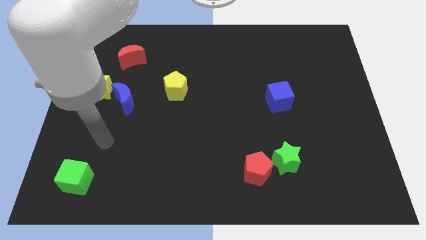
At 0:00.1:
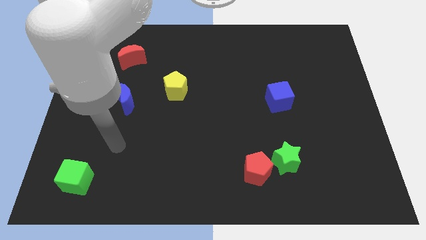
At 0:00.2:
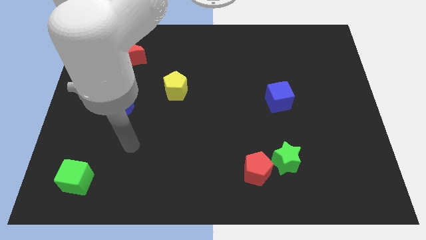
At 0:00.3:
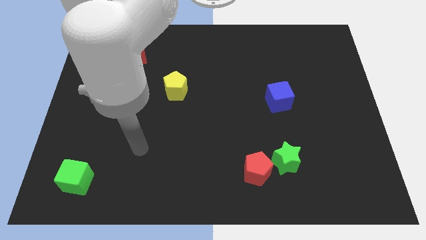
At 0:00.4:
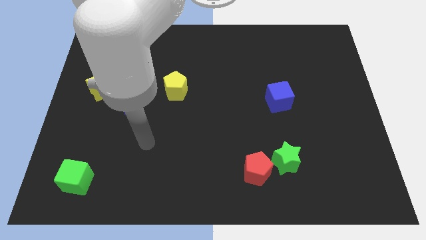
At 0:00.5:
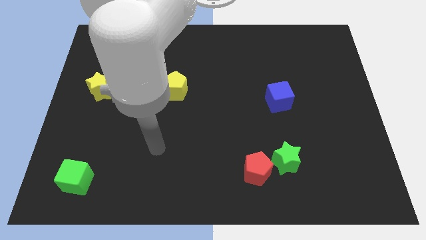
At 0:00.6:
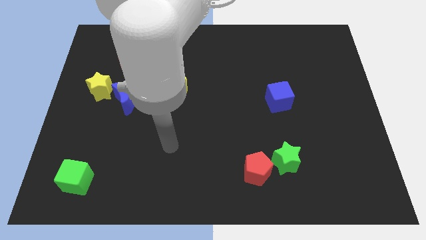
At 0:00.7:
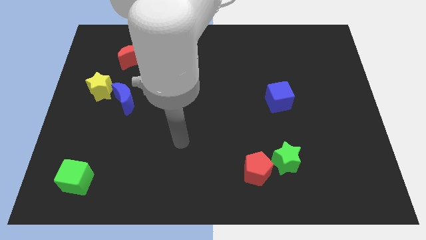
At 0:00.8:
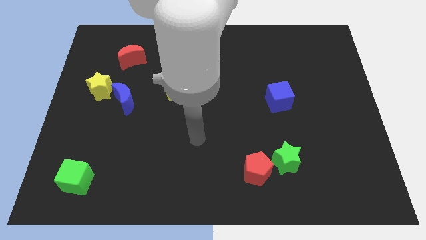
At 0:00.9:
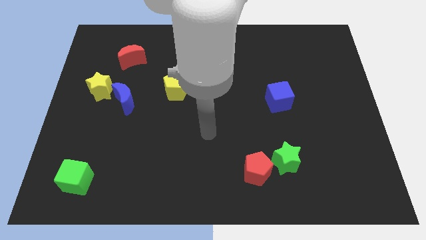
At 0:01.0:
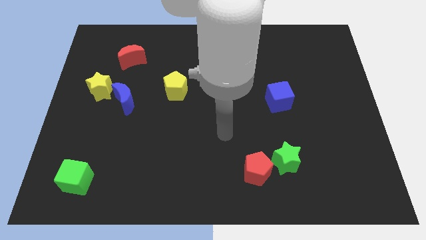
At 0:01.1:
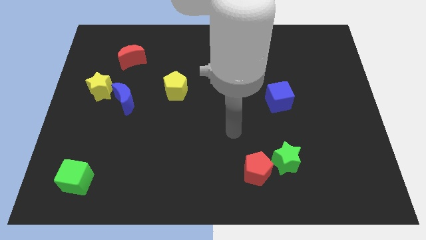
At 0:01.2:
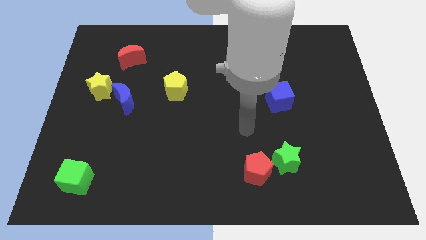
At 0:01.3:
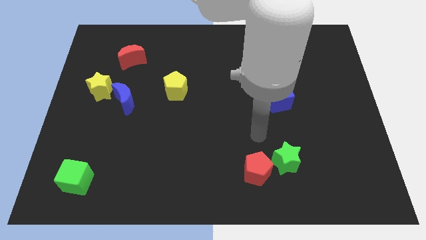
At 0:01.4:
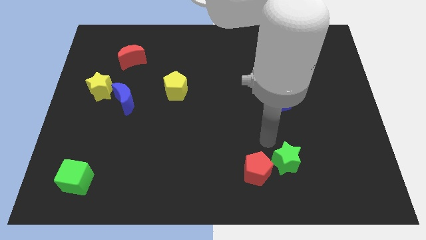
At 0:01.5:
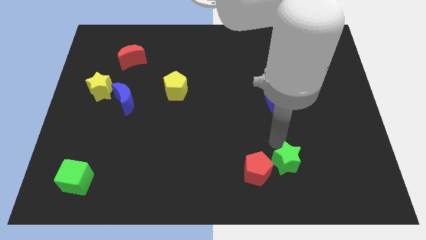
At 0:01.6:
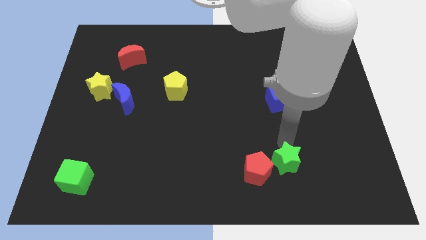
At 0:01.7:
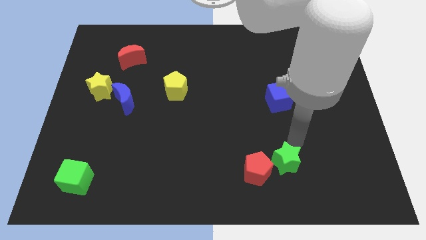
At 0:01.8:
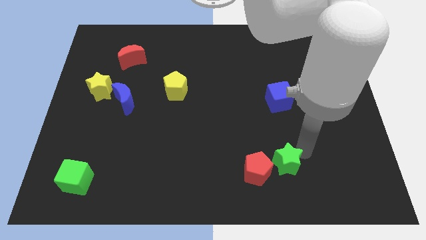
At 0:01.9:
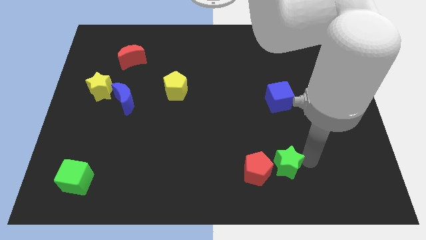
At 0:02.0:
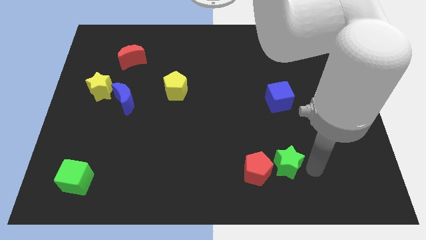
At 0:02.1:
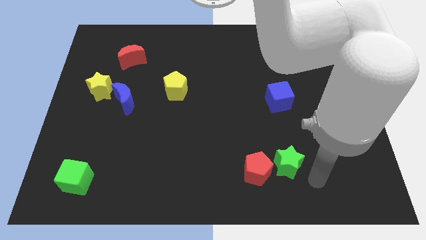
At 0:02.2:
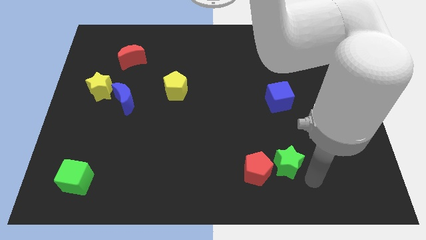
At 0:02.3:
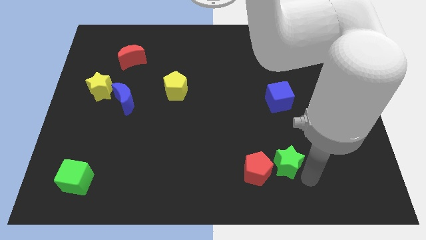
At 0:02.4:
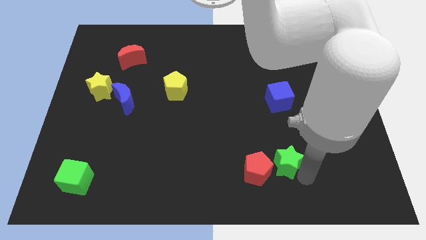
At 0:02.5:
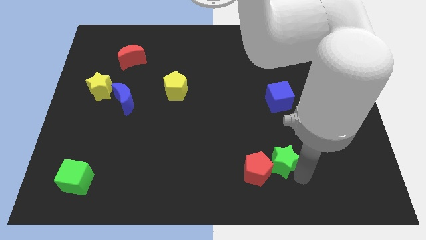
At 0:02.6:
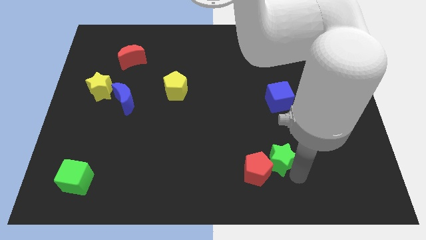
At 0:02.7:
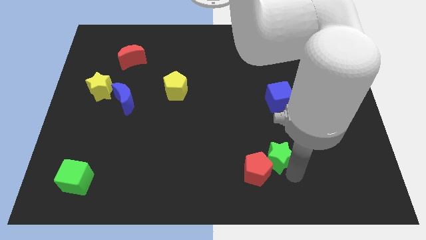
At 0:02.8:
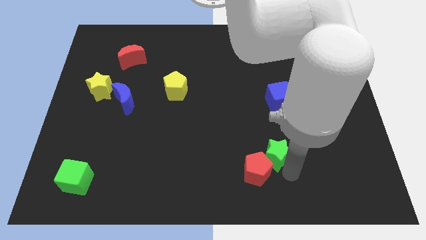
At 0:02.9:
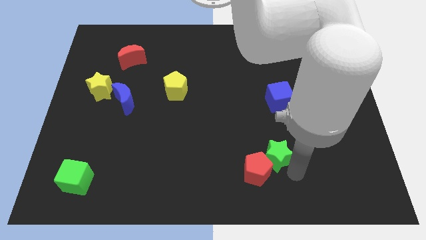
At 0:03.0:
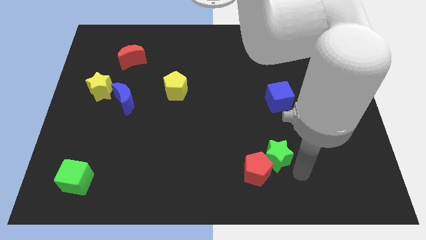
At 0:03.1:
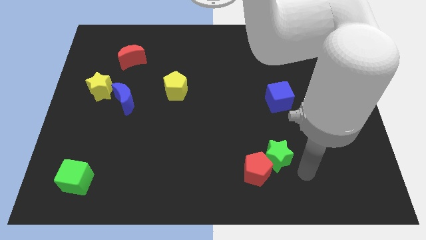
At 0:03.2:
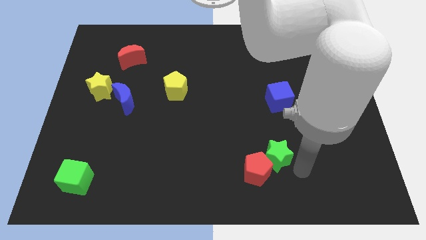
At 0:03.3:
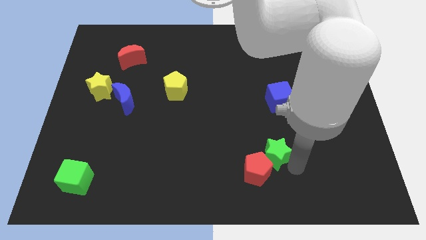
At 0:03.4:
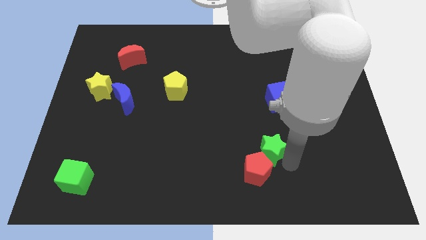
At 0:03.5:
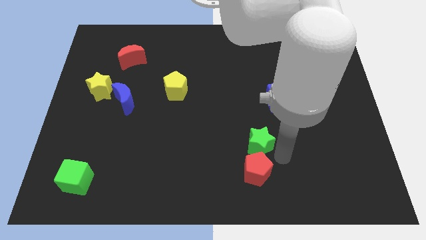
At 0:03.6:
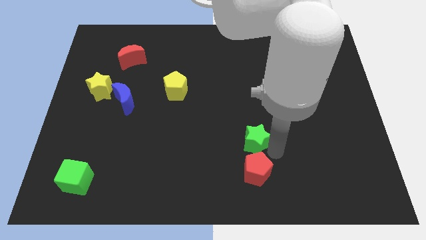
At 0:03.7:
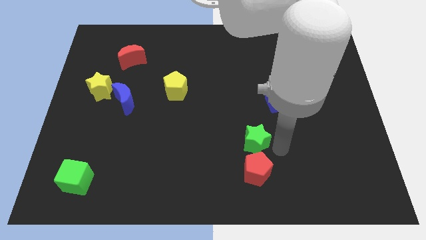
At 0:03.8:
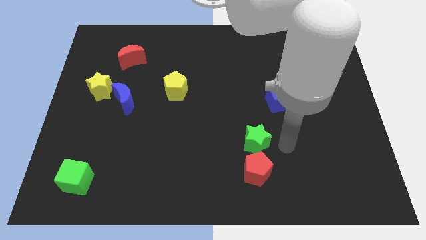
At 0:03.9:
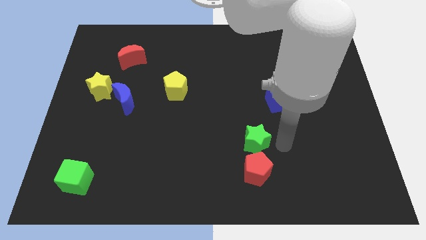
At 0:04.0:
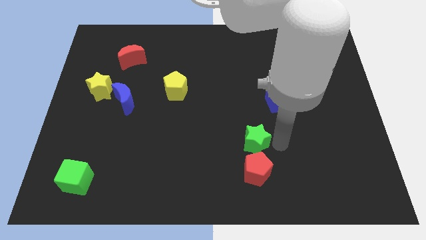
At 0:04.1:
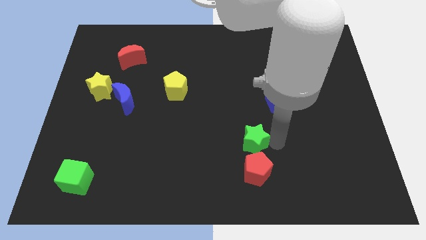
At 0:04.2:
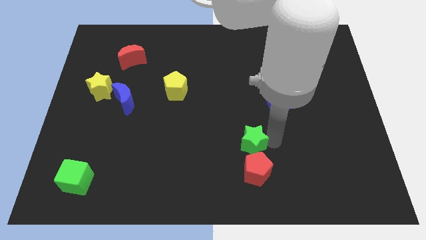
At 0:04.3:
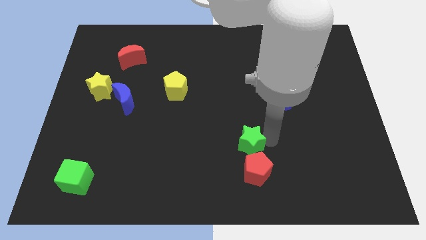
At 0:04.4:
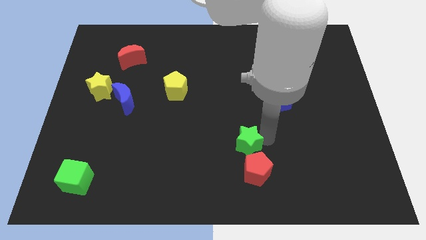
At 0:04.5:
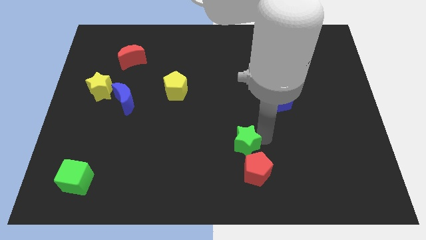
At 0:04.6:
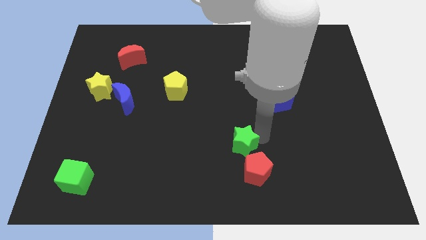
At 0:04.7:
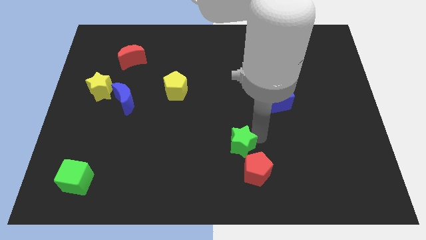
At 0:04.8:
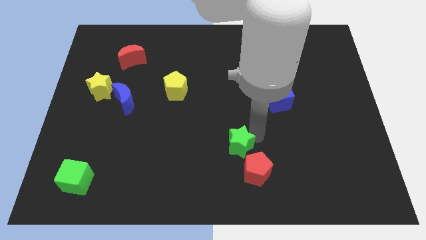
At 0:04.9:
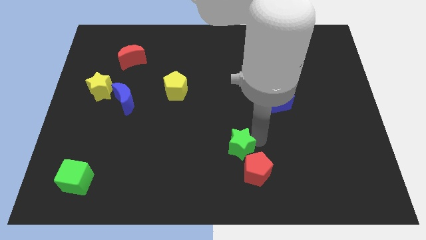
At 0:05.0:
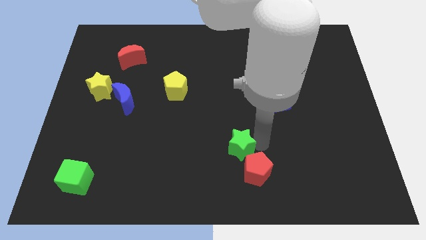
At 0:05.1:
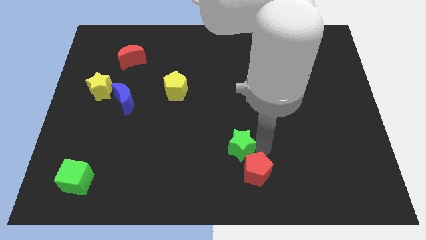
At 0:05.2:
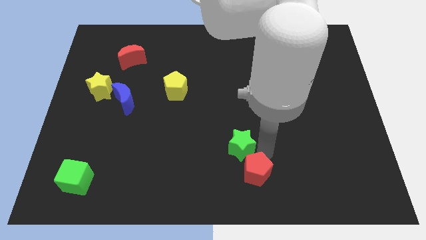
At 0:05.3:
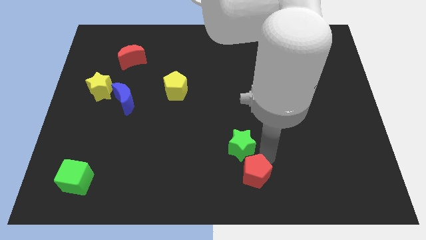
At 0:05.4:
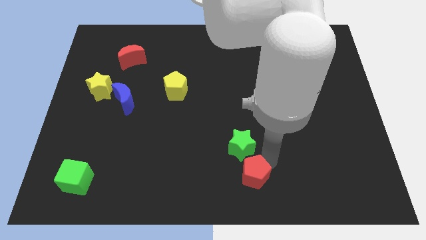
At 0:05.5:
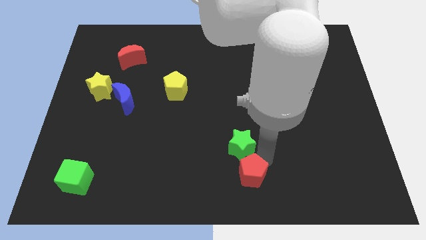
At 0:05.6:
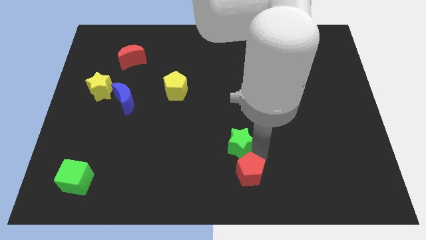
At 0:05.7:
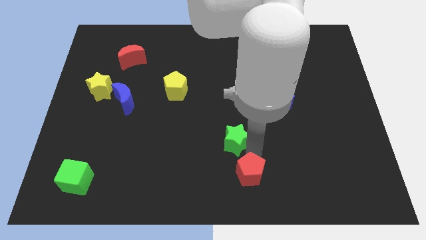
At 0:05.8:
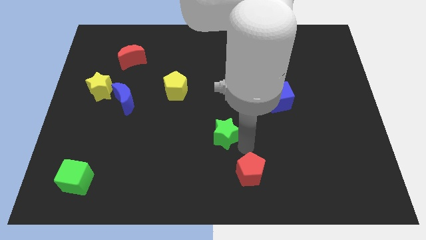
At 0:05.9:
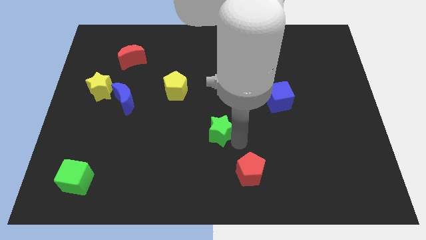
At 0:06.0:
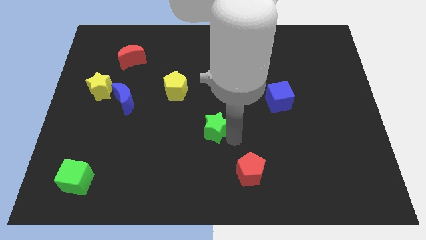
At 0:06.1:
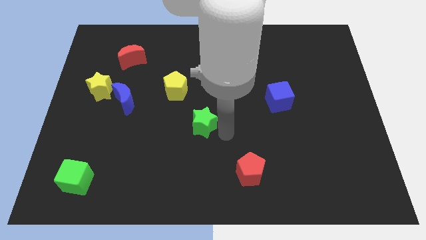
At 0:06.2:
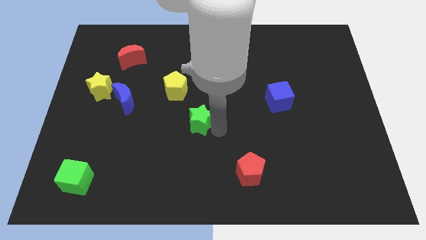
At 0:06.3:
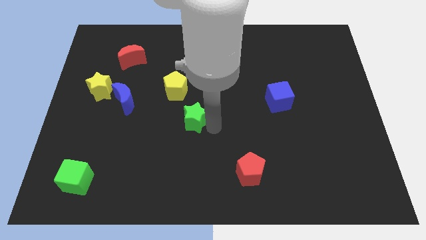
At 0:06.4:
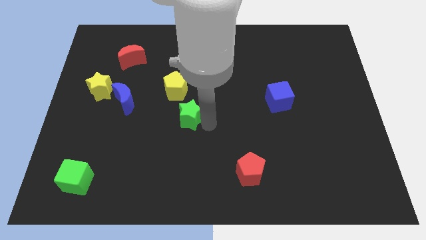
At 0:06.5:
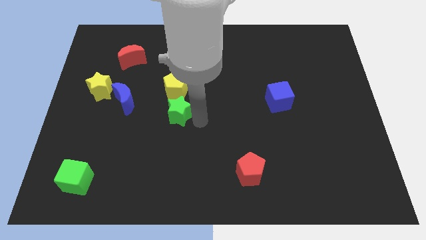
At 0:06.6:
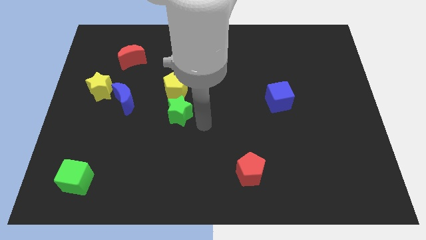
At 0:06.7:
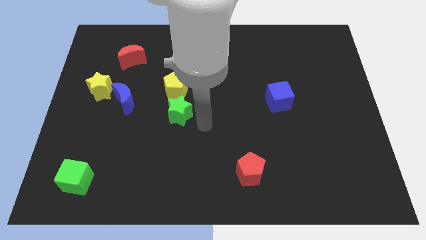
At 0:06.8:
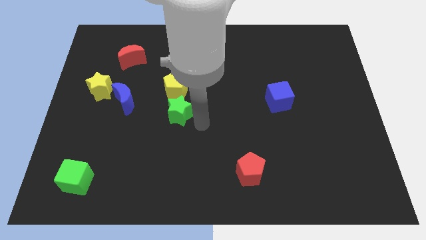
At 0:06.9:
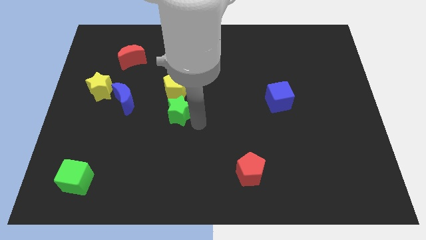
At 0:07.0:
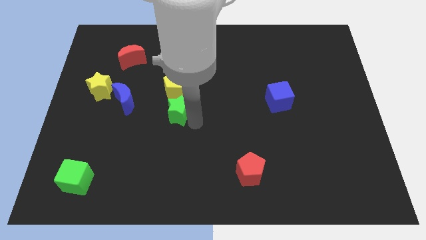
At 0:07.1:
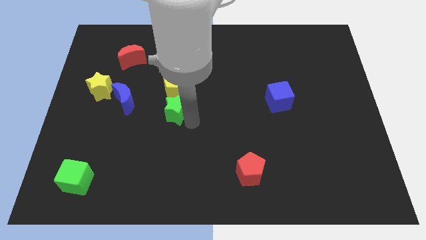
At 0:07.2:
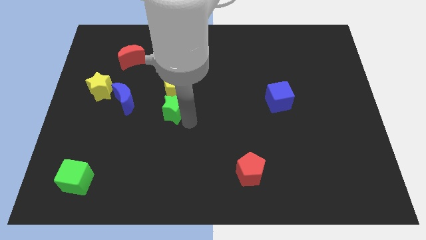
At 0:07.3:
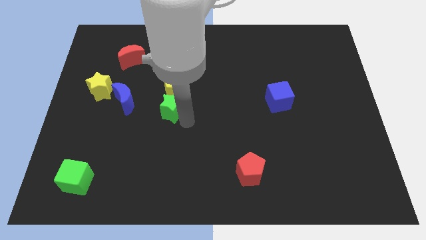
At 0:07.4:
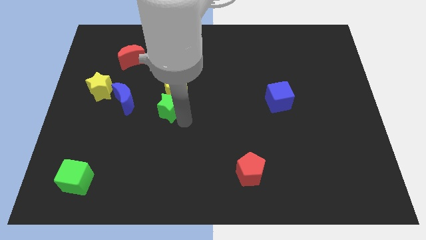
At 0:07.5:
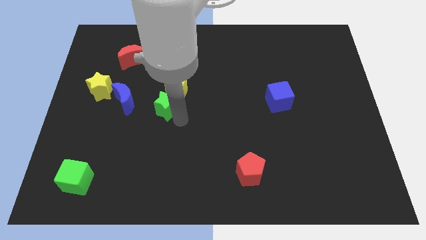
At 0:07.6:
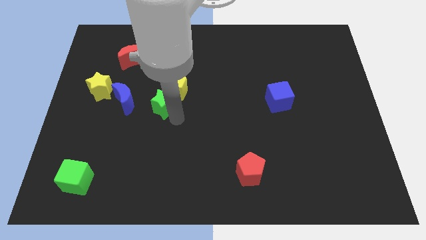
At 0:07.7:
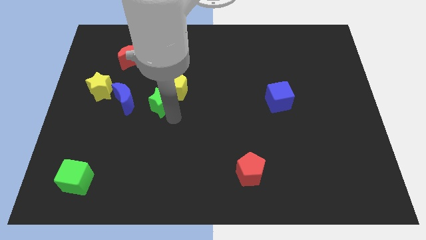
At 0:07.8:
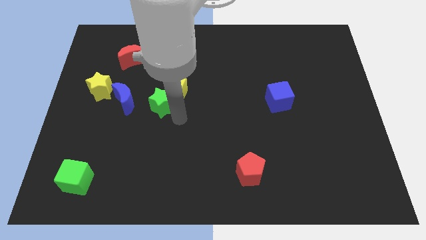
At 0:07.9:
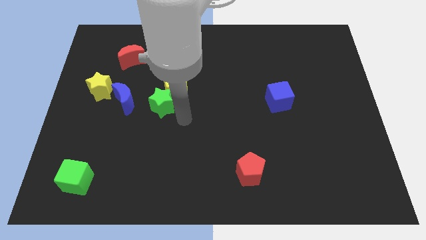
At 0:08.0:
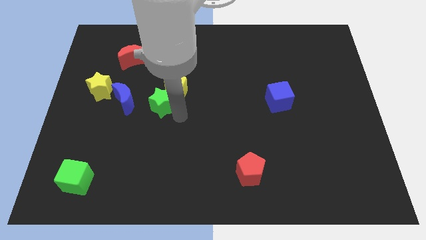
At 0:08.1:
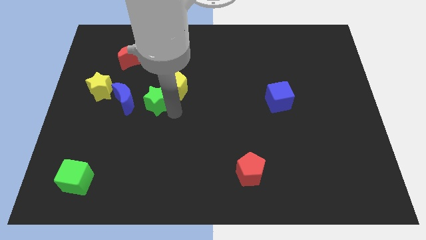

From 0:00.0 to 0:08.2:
slide the green star to the right of the yellow star

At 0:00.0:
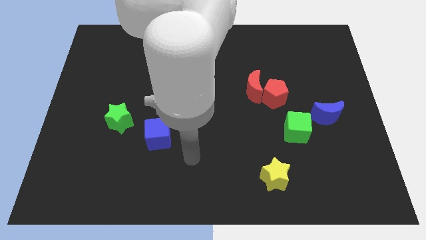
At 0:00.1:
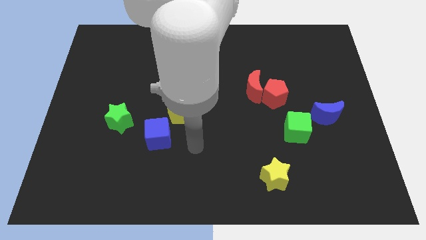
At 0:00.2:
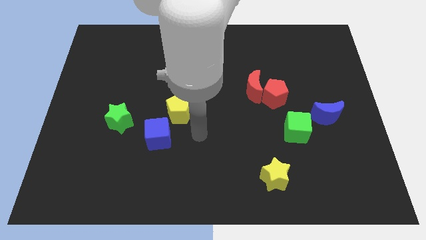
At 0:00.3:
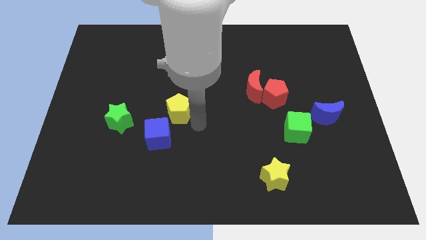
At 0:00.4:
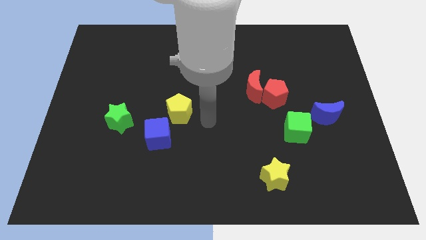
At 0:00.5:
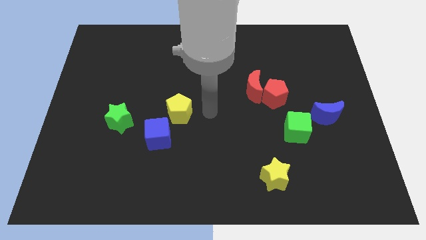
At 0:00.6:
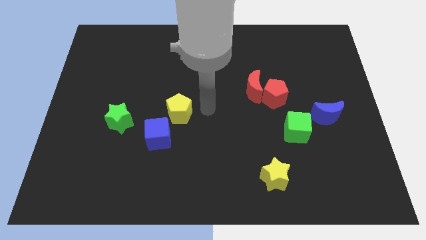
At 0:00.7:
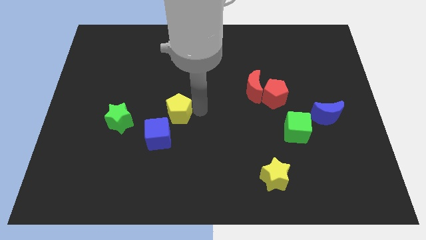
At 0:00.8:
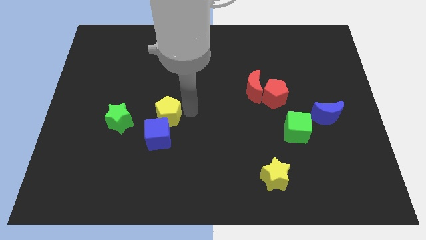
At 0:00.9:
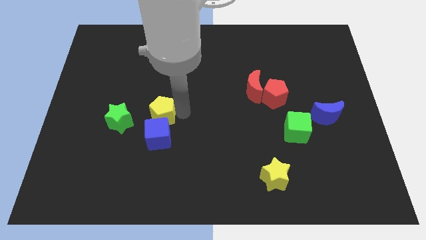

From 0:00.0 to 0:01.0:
put the yellow pentagon to the top left of the blue cube
